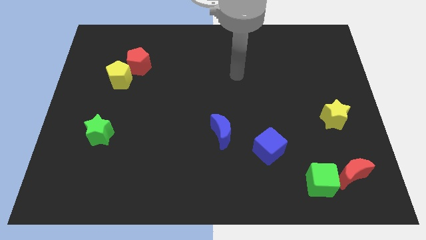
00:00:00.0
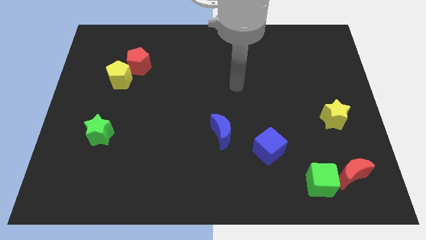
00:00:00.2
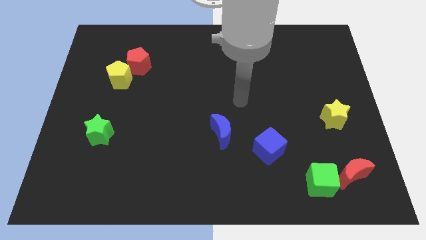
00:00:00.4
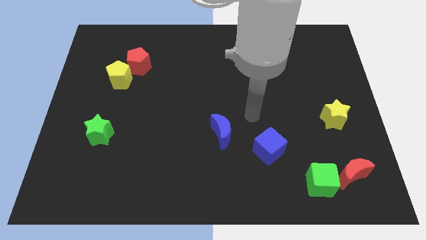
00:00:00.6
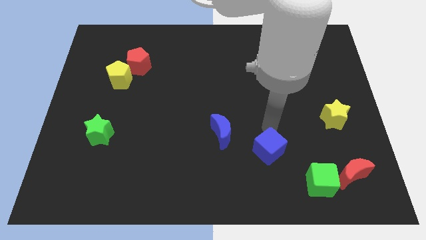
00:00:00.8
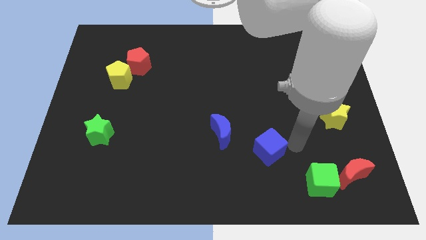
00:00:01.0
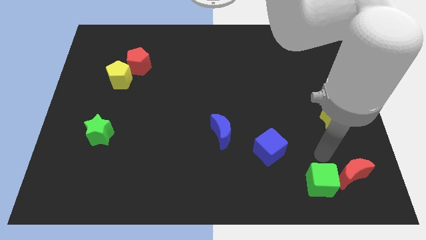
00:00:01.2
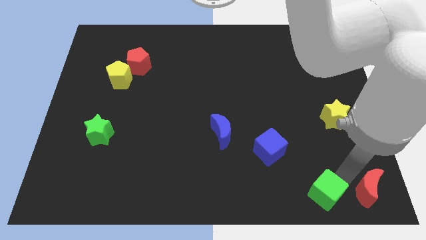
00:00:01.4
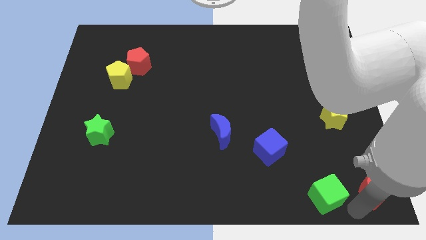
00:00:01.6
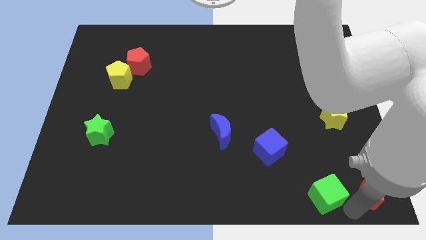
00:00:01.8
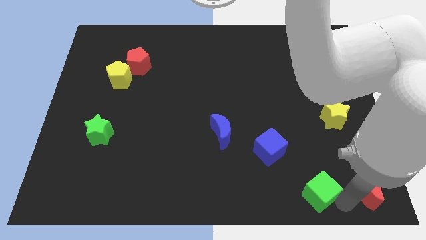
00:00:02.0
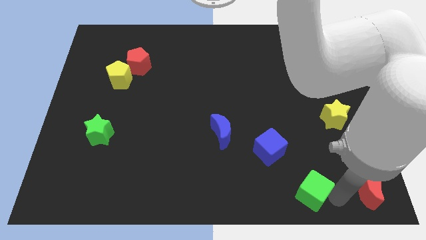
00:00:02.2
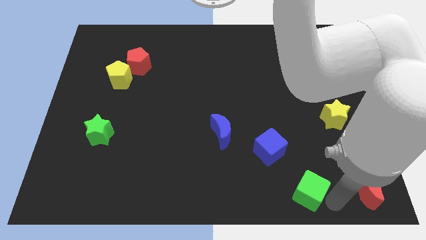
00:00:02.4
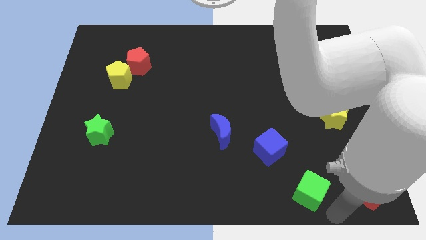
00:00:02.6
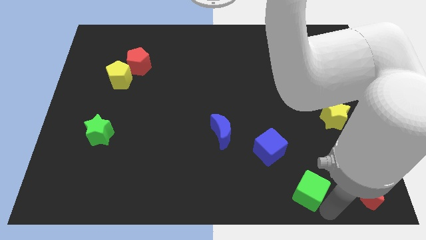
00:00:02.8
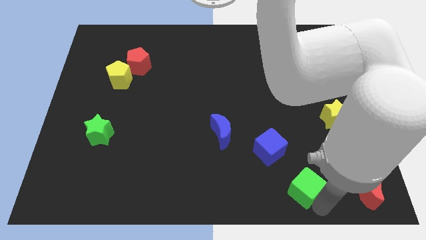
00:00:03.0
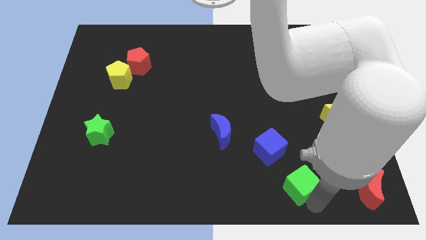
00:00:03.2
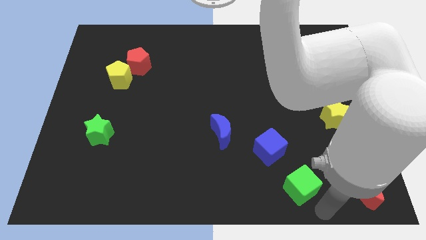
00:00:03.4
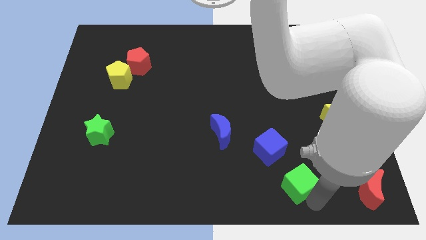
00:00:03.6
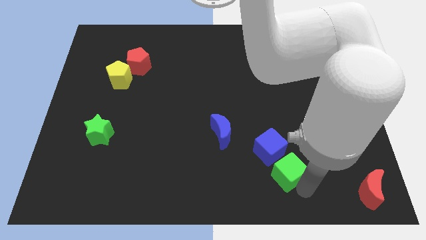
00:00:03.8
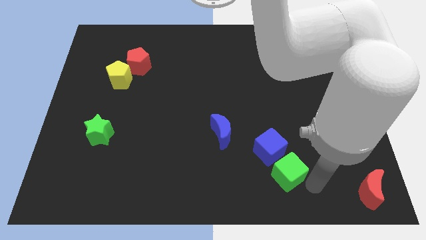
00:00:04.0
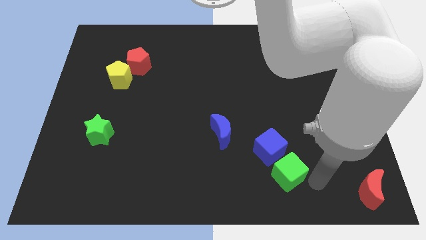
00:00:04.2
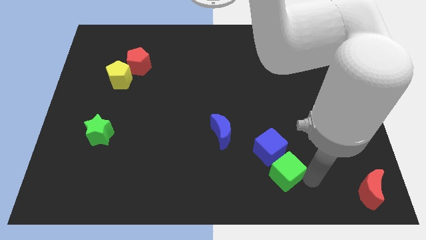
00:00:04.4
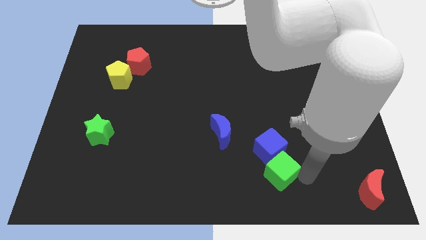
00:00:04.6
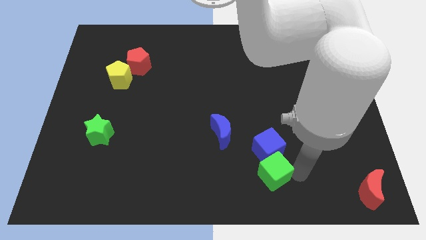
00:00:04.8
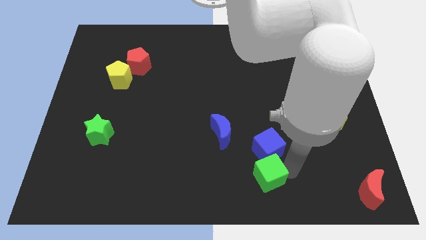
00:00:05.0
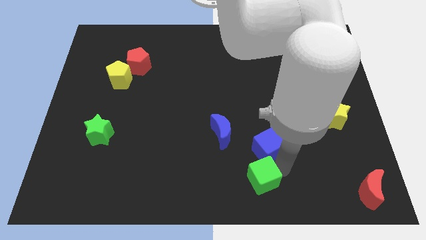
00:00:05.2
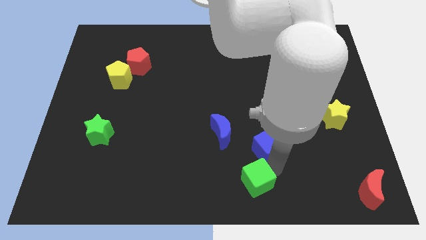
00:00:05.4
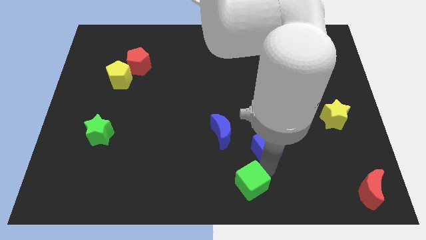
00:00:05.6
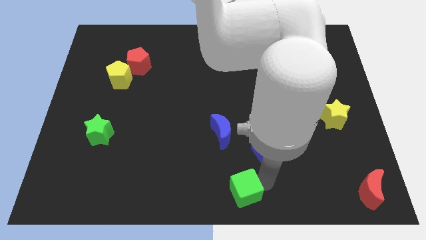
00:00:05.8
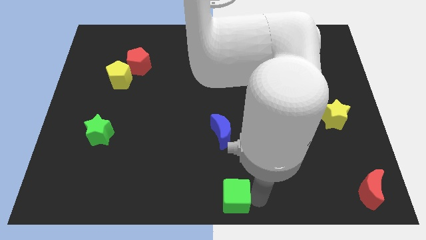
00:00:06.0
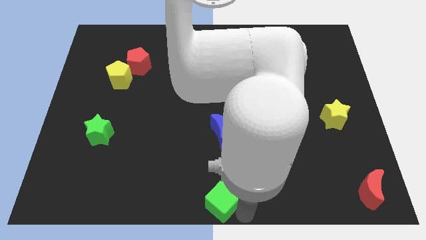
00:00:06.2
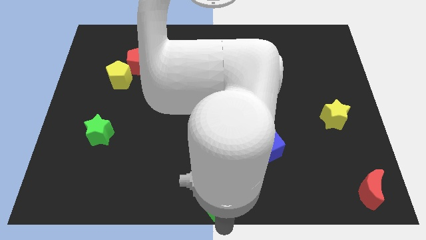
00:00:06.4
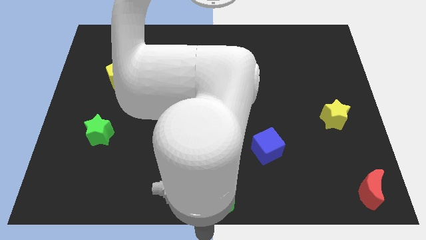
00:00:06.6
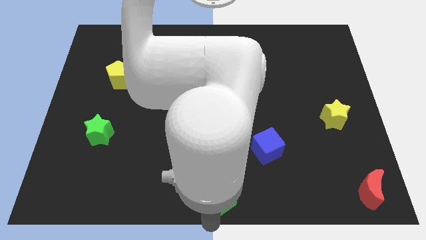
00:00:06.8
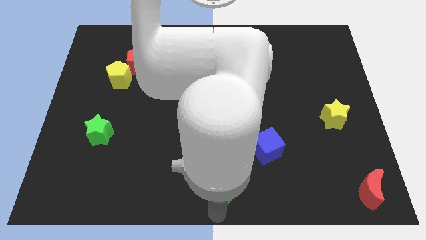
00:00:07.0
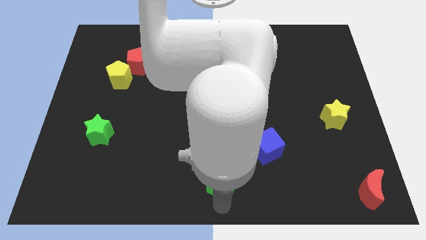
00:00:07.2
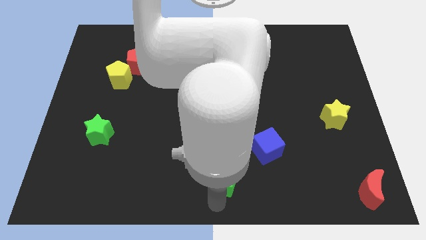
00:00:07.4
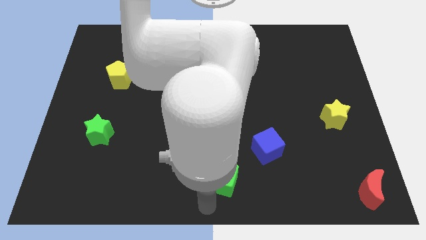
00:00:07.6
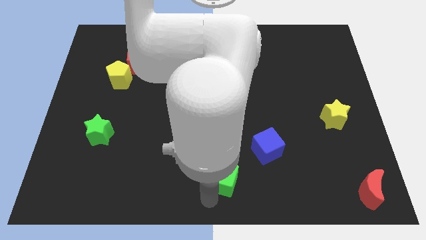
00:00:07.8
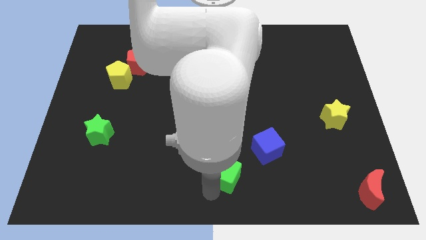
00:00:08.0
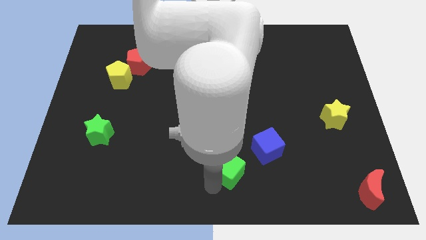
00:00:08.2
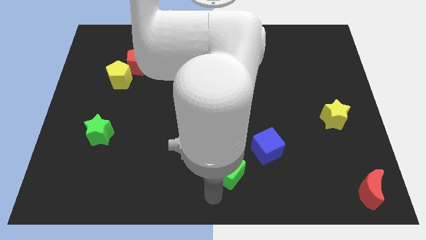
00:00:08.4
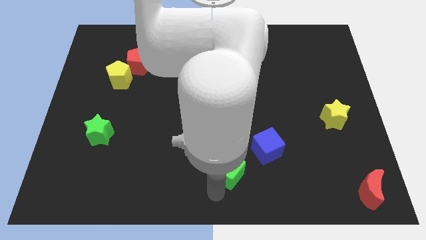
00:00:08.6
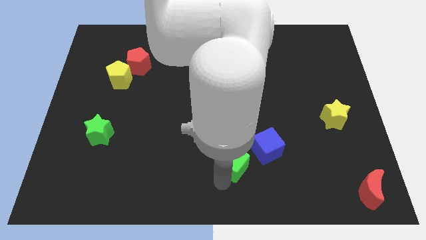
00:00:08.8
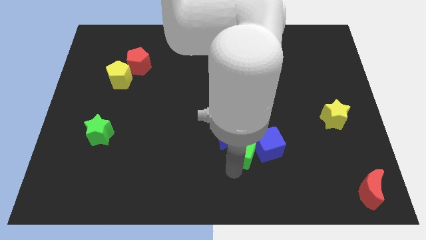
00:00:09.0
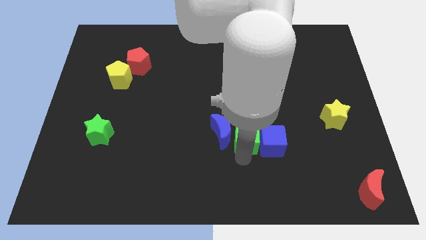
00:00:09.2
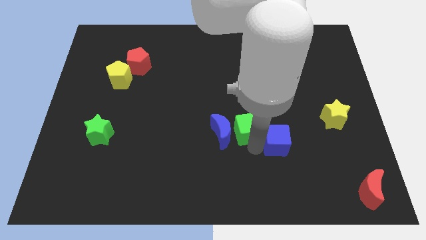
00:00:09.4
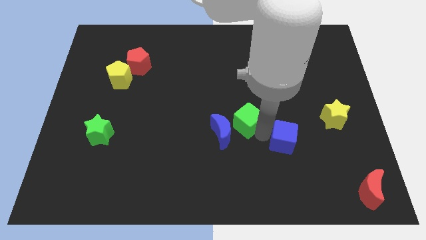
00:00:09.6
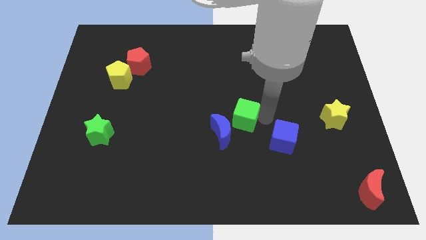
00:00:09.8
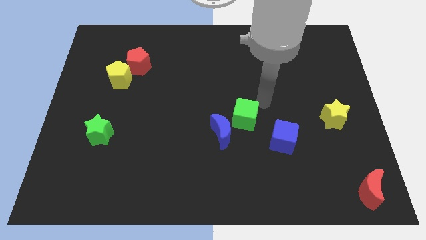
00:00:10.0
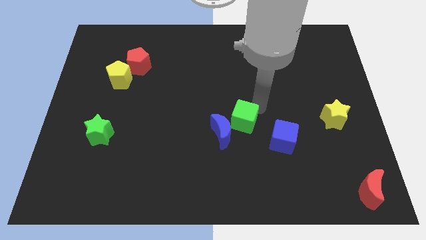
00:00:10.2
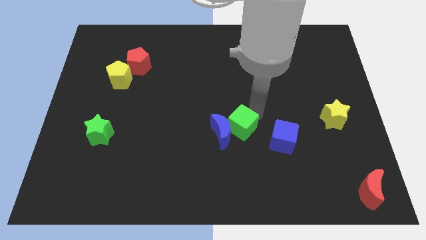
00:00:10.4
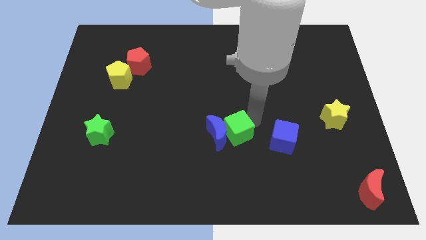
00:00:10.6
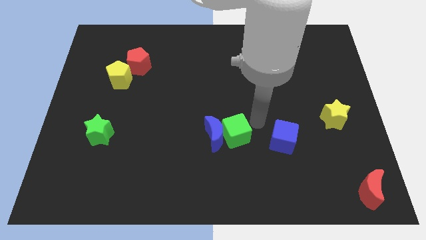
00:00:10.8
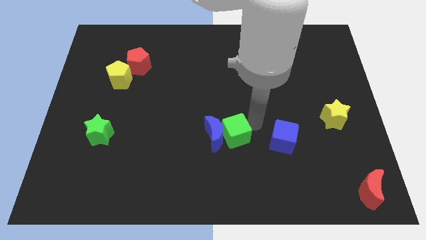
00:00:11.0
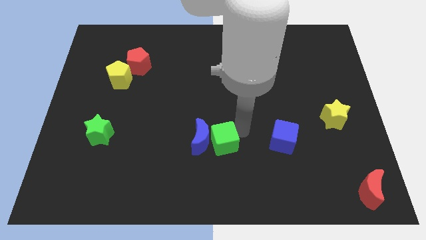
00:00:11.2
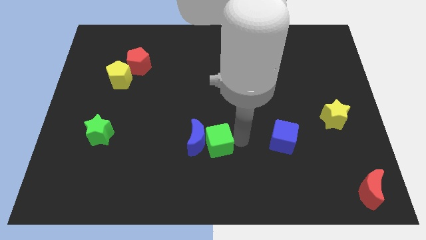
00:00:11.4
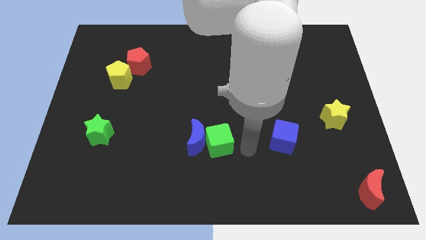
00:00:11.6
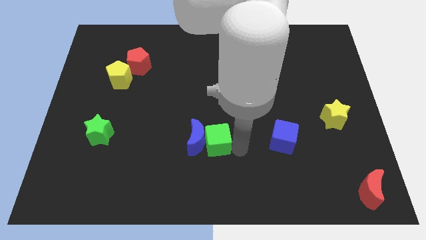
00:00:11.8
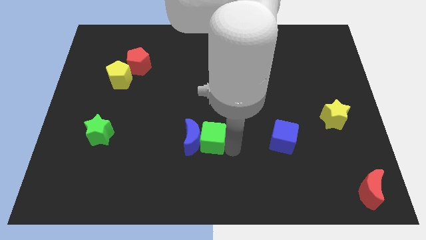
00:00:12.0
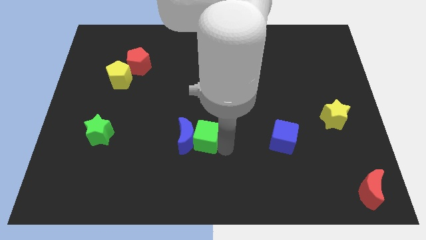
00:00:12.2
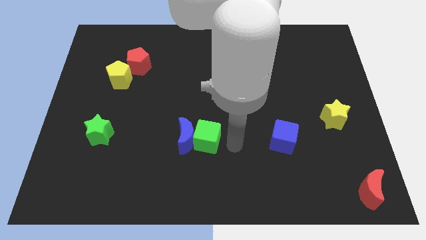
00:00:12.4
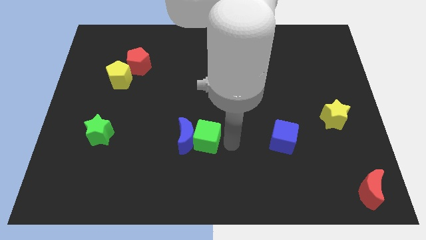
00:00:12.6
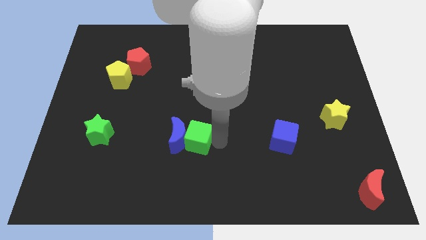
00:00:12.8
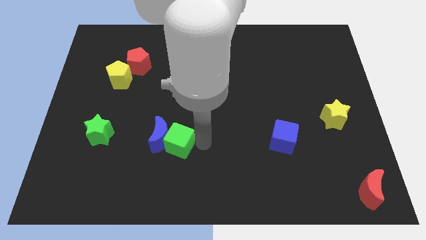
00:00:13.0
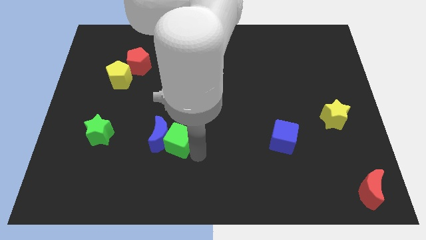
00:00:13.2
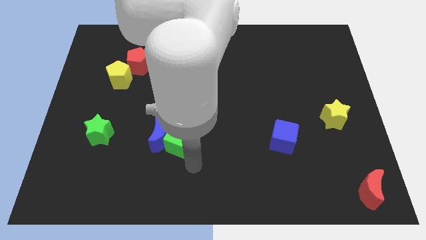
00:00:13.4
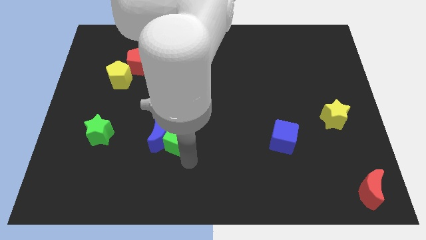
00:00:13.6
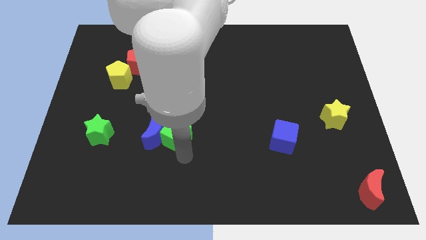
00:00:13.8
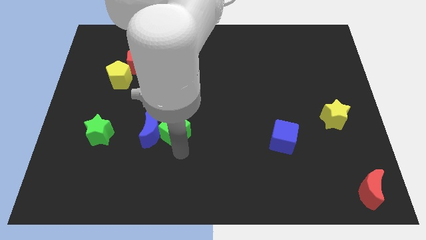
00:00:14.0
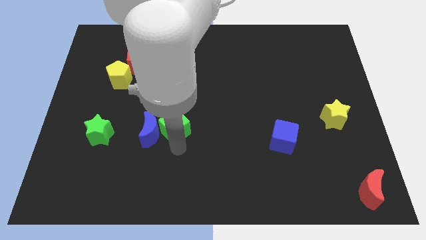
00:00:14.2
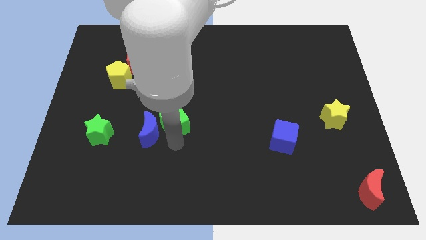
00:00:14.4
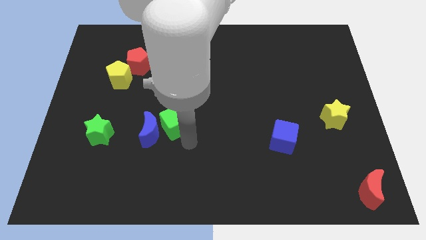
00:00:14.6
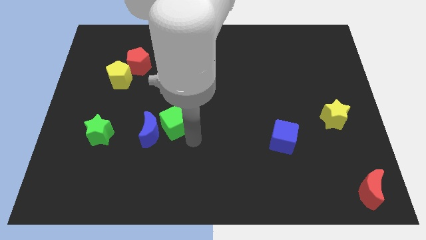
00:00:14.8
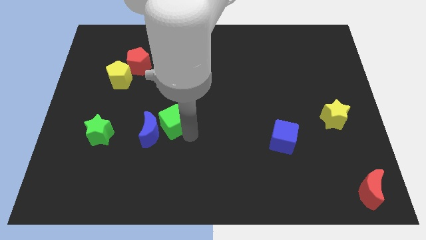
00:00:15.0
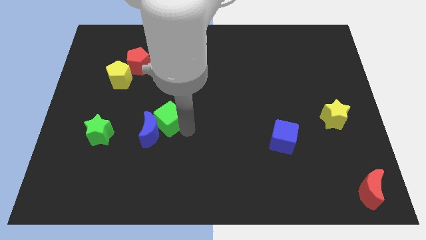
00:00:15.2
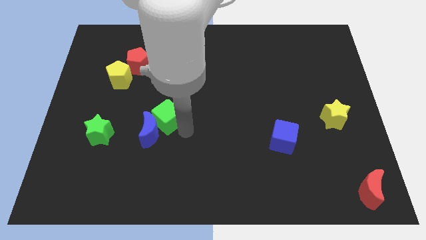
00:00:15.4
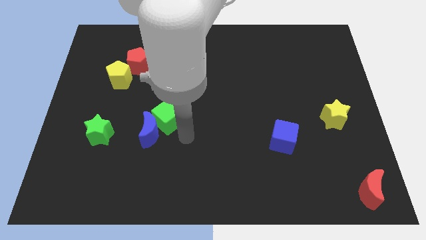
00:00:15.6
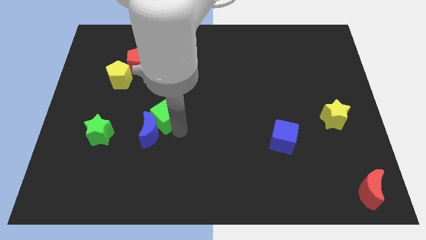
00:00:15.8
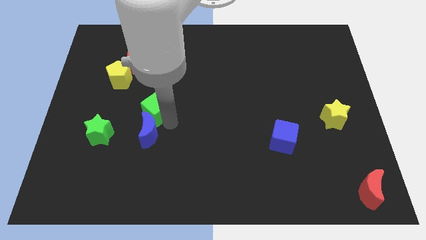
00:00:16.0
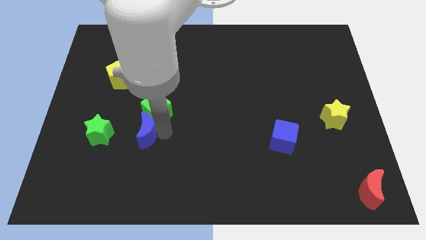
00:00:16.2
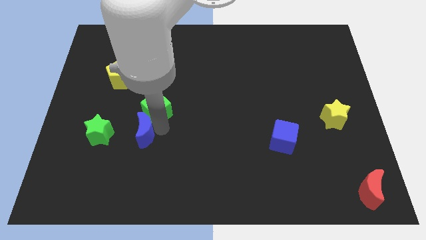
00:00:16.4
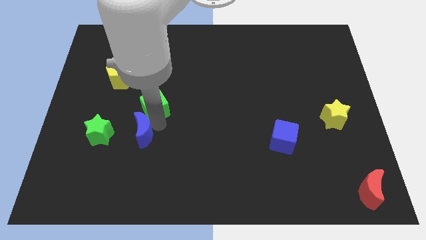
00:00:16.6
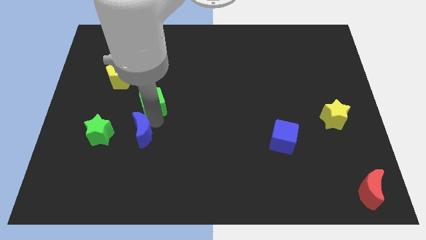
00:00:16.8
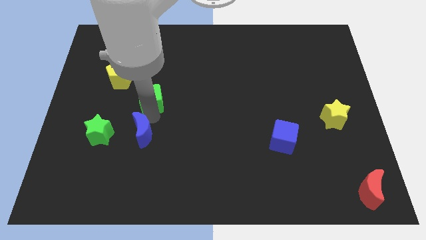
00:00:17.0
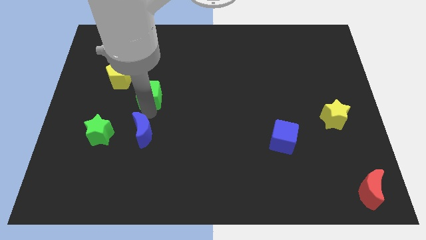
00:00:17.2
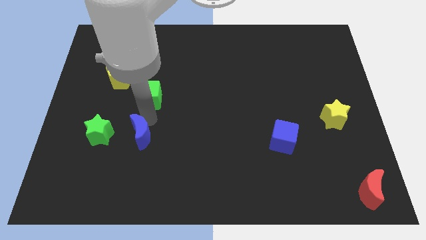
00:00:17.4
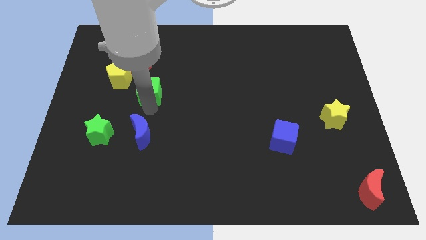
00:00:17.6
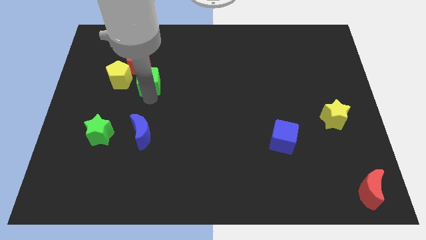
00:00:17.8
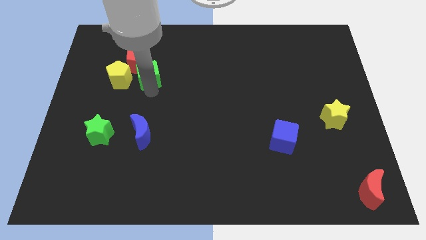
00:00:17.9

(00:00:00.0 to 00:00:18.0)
push the green cube to the red pentagon
